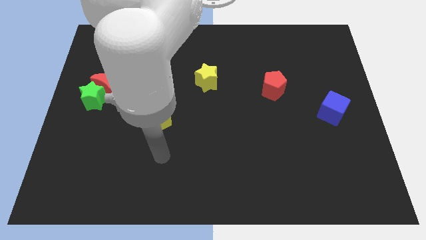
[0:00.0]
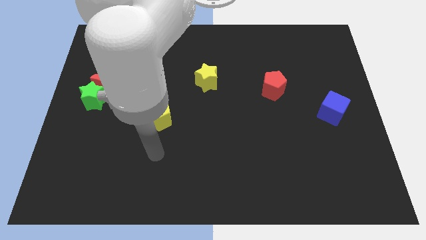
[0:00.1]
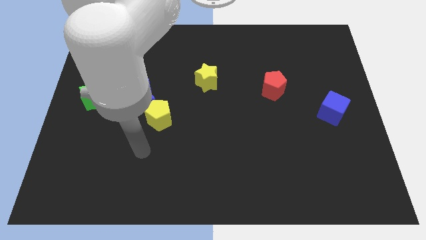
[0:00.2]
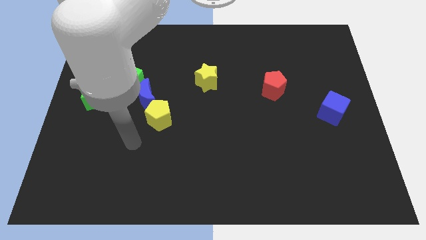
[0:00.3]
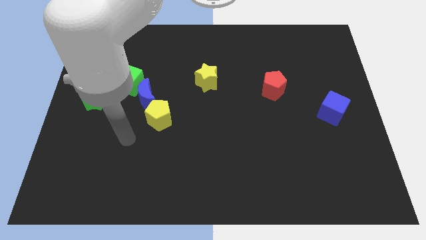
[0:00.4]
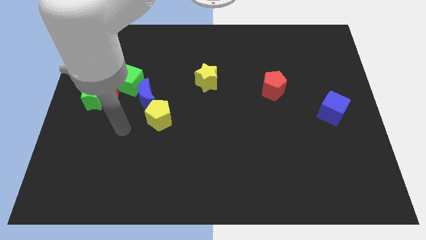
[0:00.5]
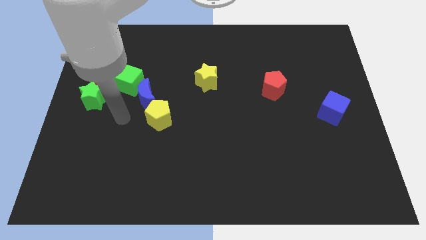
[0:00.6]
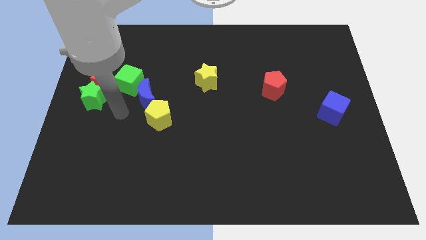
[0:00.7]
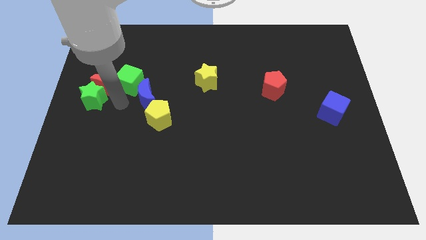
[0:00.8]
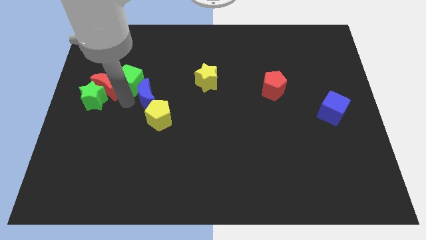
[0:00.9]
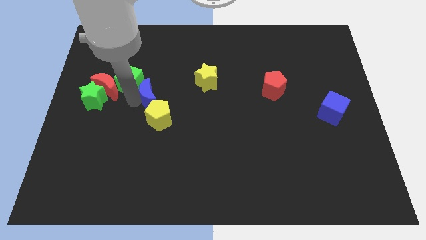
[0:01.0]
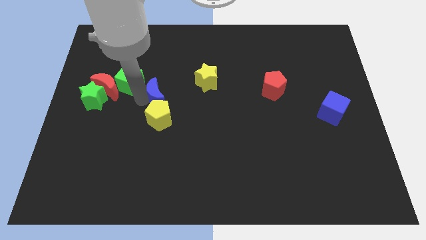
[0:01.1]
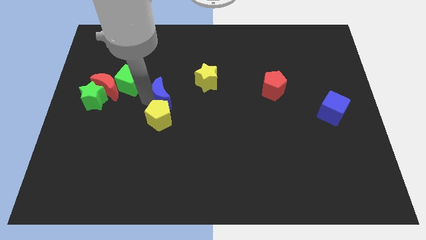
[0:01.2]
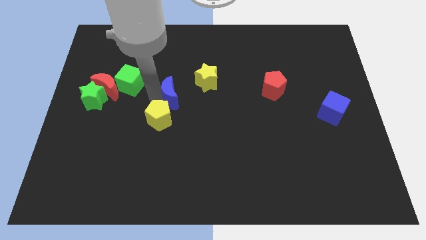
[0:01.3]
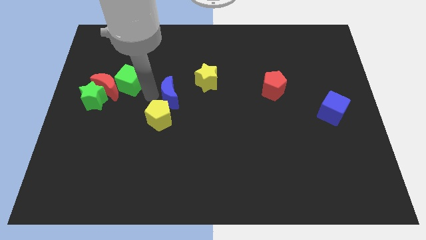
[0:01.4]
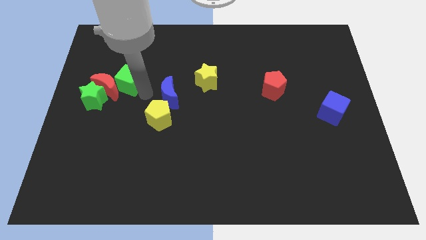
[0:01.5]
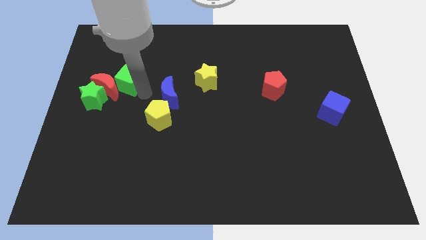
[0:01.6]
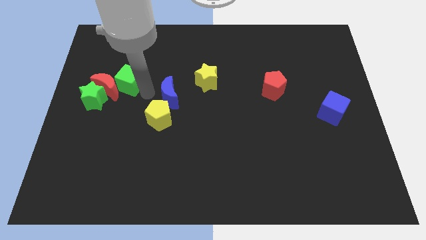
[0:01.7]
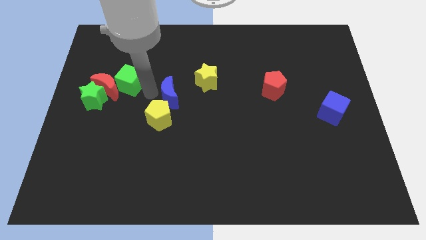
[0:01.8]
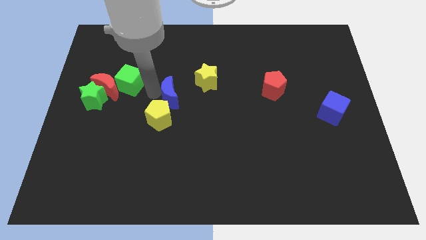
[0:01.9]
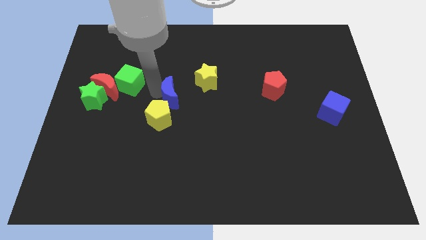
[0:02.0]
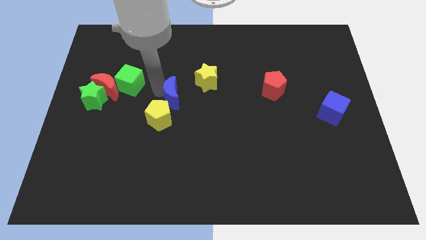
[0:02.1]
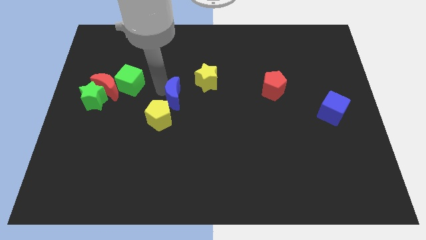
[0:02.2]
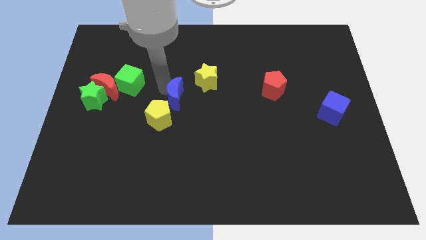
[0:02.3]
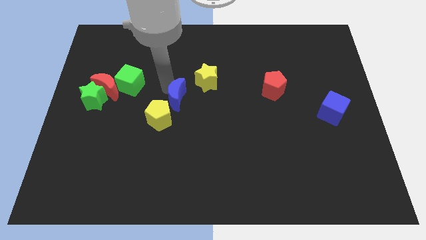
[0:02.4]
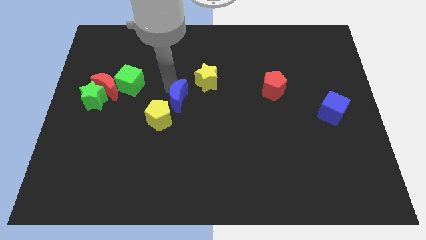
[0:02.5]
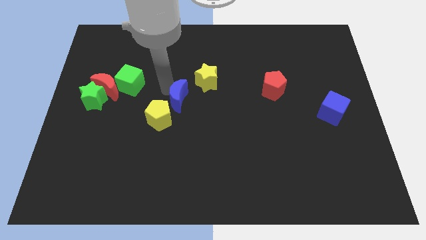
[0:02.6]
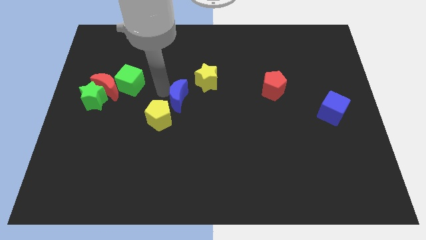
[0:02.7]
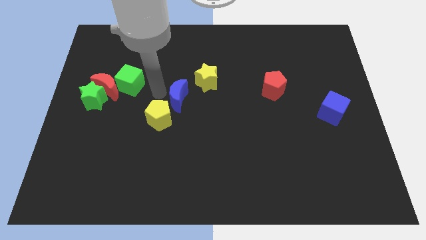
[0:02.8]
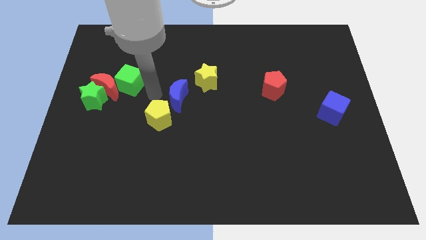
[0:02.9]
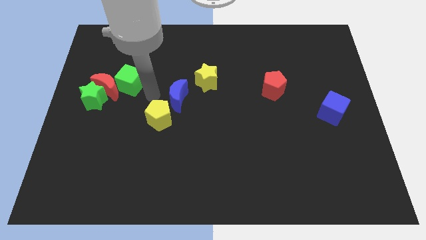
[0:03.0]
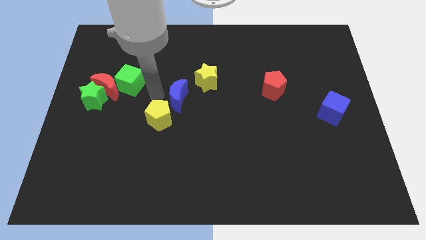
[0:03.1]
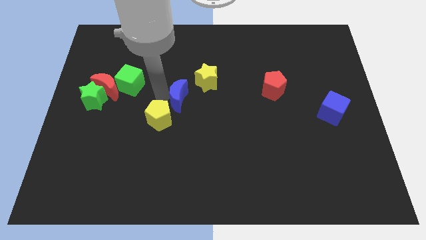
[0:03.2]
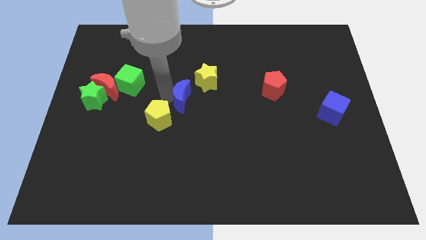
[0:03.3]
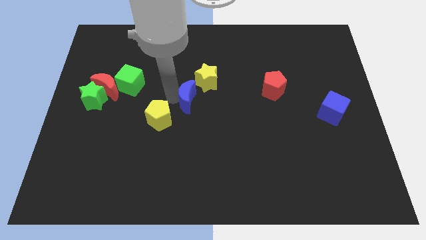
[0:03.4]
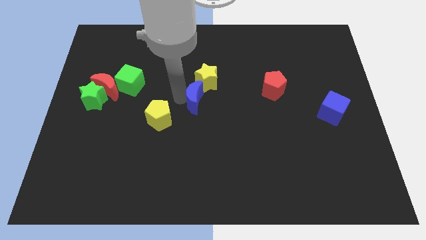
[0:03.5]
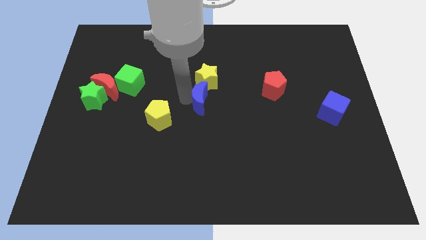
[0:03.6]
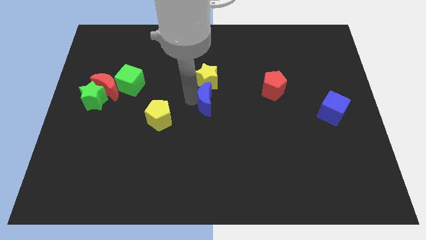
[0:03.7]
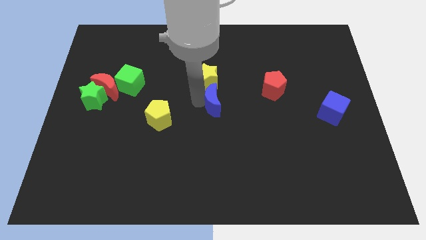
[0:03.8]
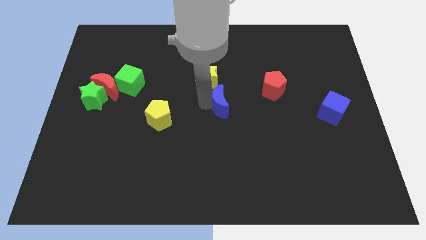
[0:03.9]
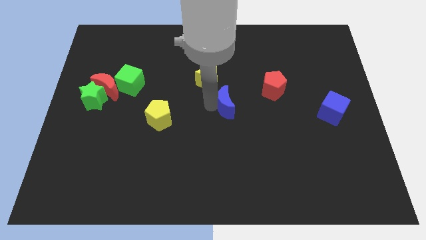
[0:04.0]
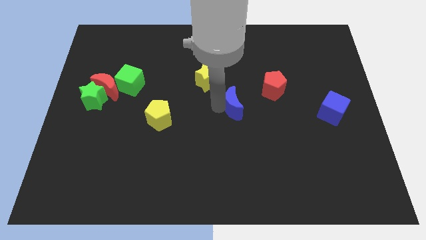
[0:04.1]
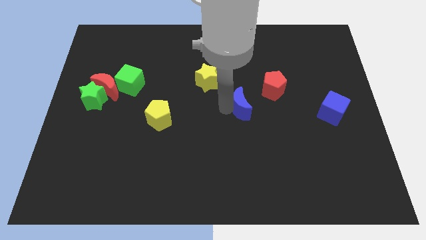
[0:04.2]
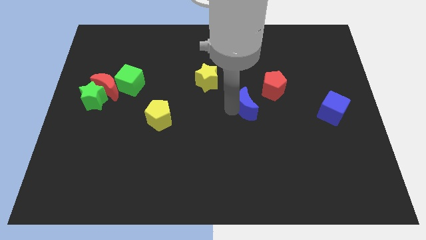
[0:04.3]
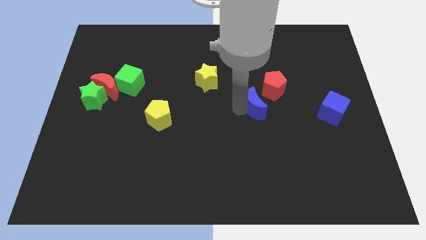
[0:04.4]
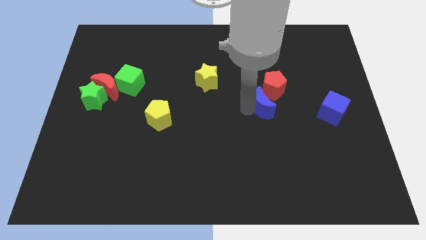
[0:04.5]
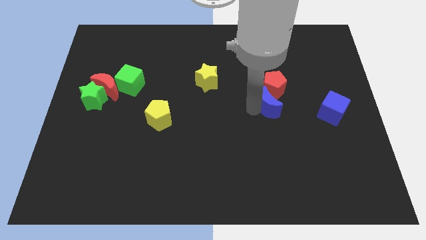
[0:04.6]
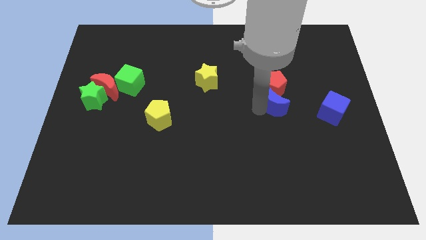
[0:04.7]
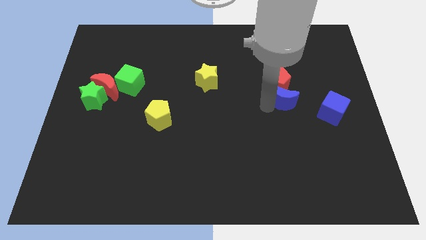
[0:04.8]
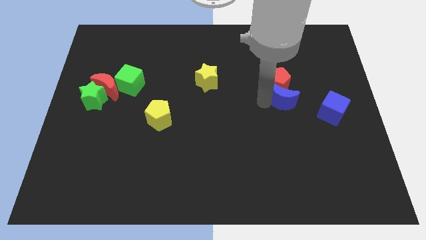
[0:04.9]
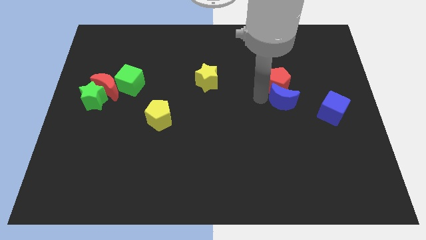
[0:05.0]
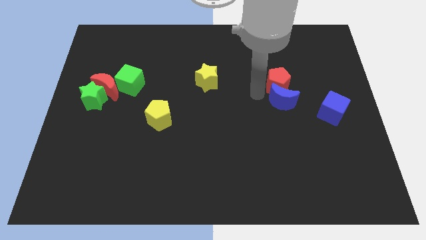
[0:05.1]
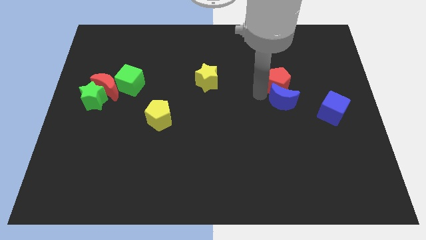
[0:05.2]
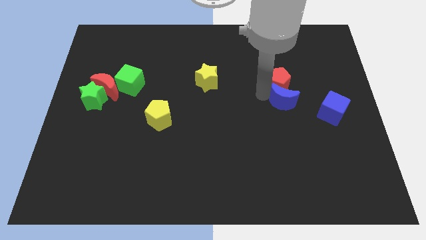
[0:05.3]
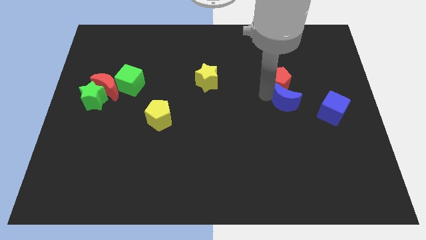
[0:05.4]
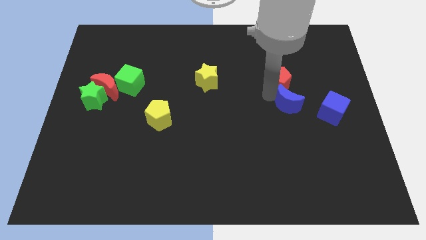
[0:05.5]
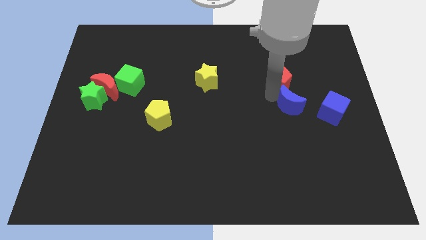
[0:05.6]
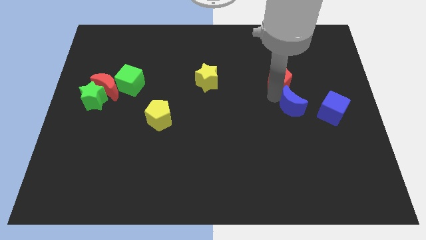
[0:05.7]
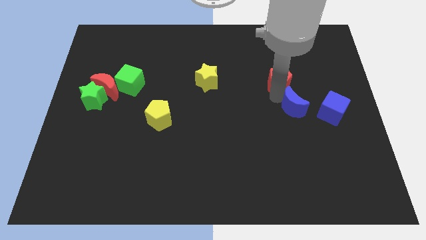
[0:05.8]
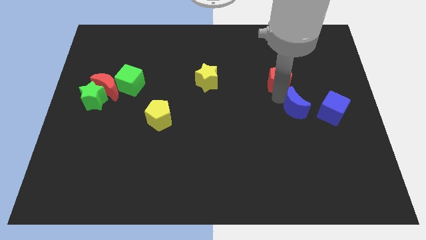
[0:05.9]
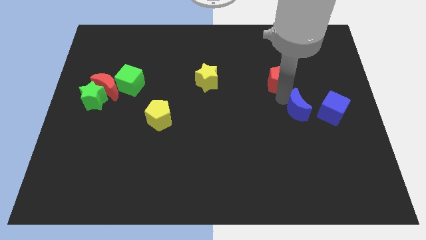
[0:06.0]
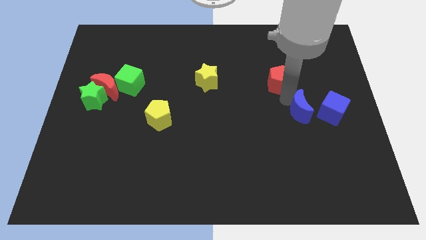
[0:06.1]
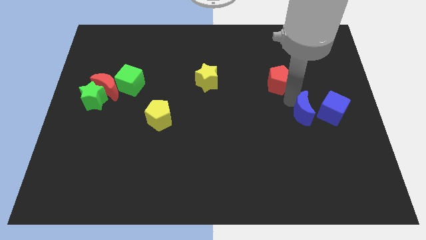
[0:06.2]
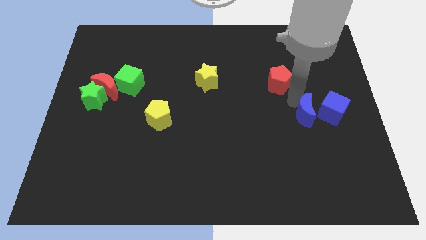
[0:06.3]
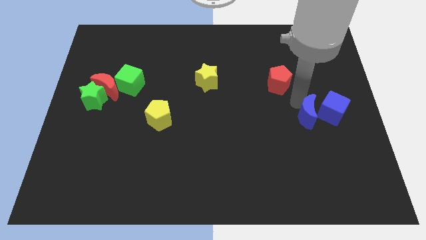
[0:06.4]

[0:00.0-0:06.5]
slide the blue moon to the blue cube

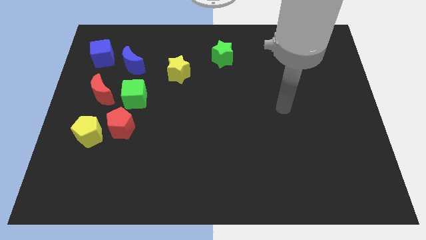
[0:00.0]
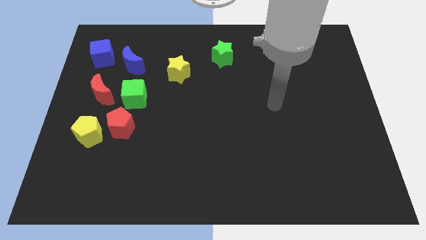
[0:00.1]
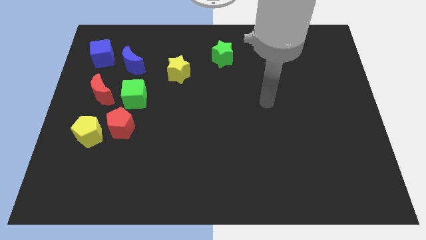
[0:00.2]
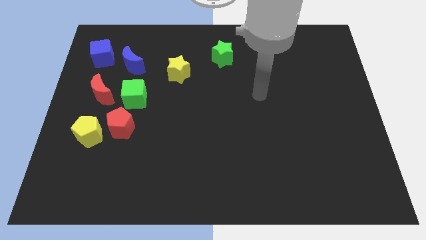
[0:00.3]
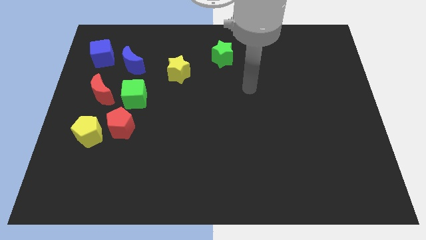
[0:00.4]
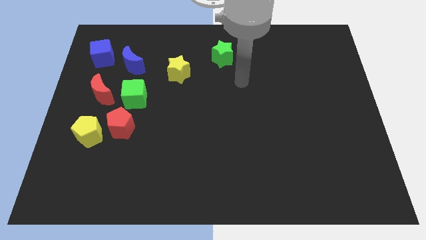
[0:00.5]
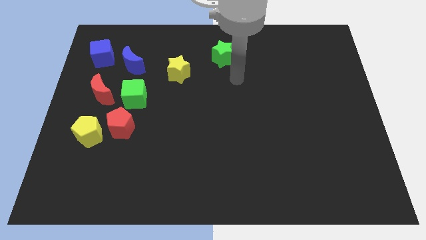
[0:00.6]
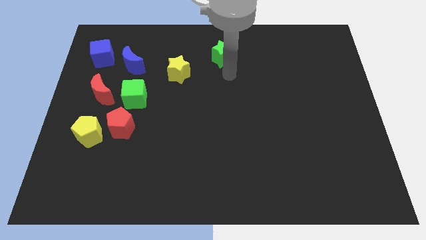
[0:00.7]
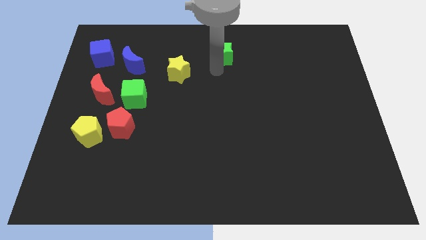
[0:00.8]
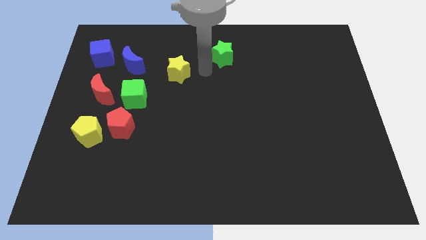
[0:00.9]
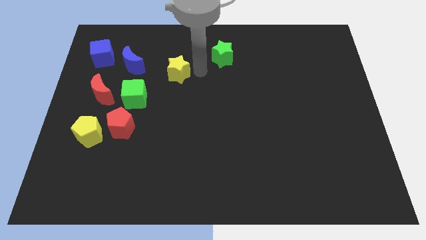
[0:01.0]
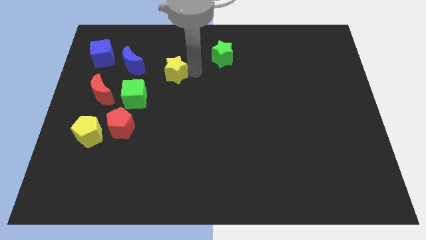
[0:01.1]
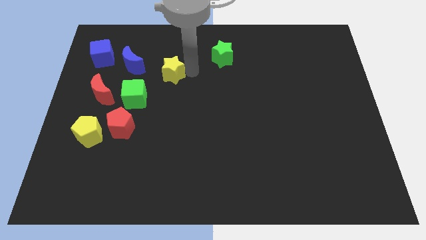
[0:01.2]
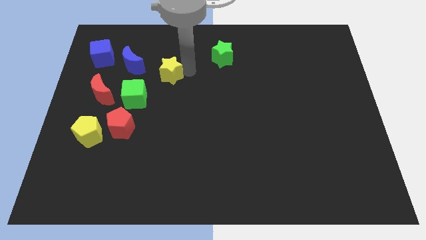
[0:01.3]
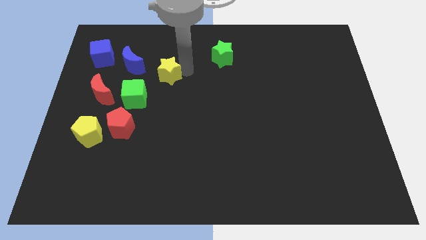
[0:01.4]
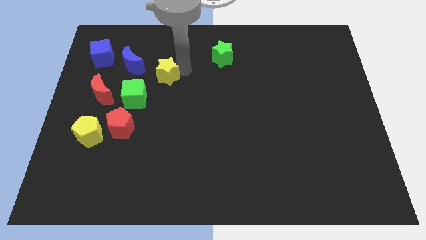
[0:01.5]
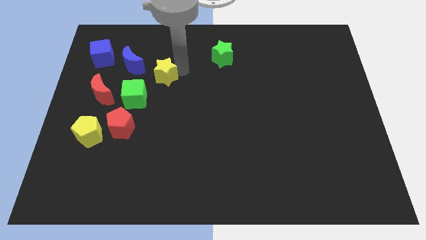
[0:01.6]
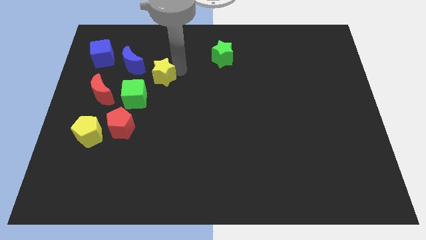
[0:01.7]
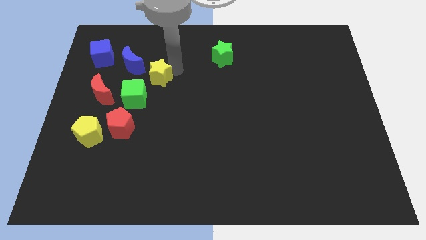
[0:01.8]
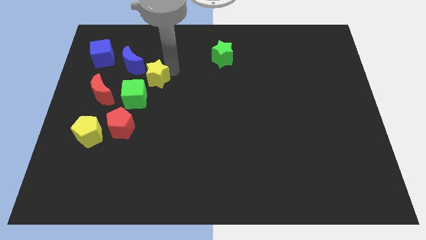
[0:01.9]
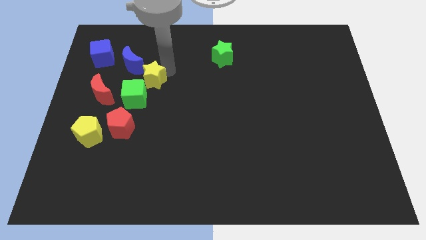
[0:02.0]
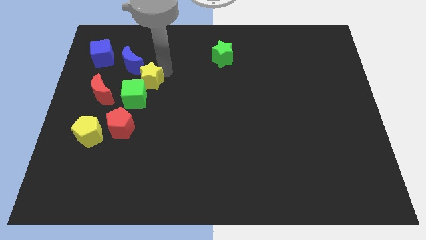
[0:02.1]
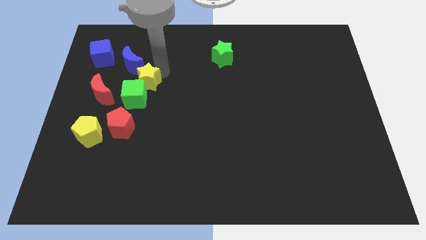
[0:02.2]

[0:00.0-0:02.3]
slide the yellow star next to the green cube
